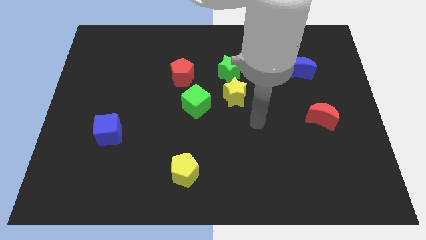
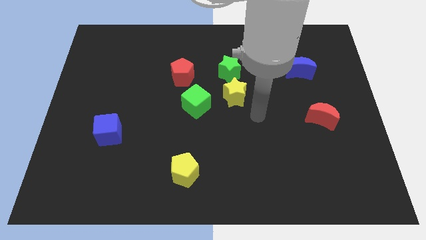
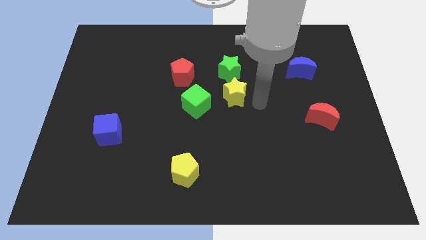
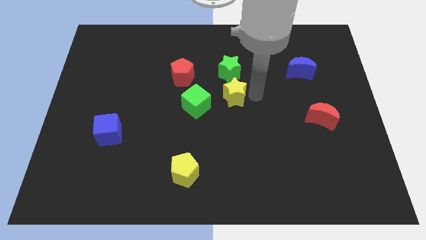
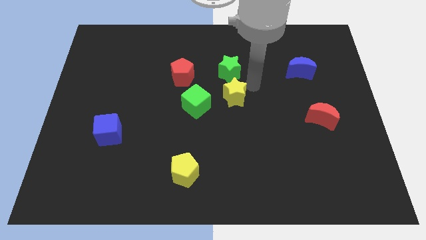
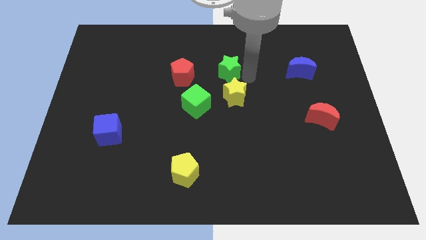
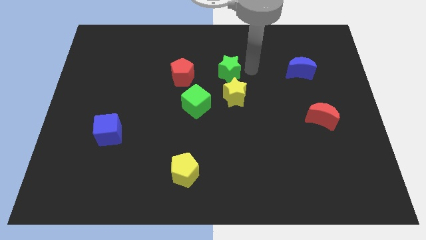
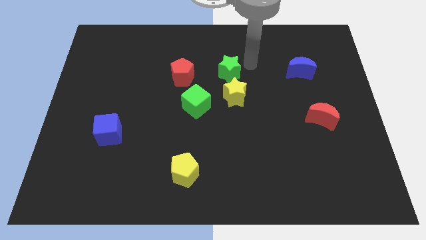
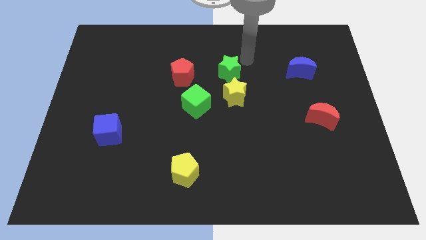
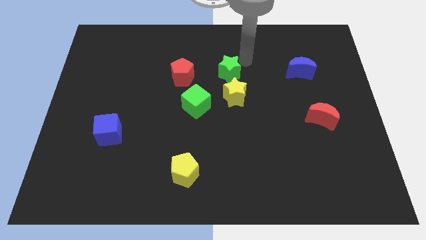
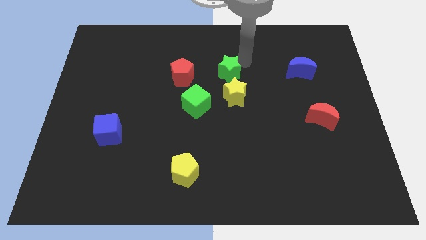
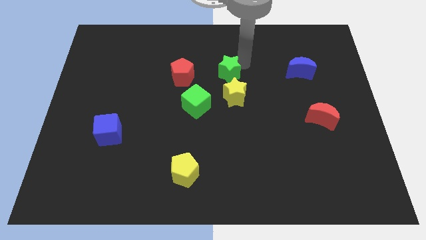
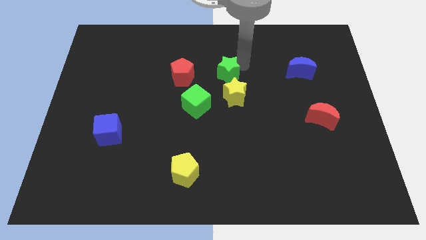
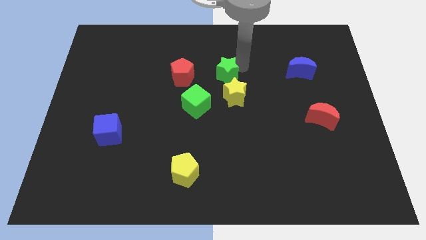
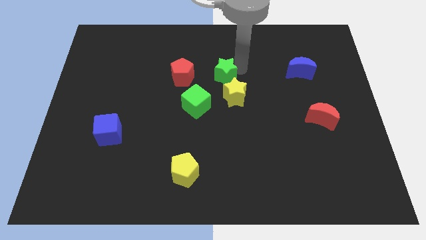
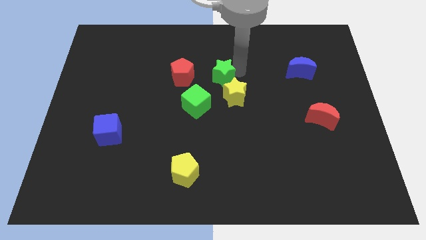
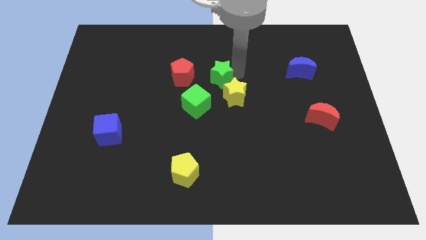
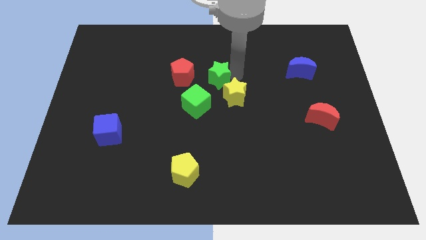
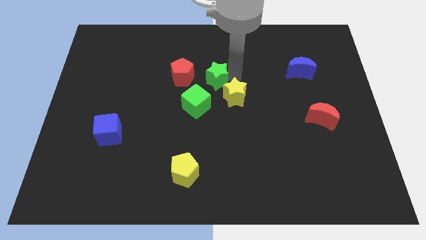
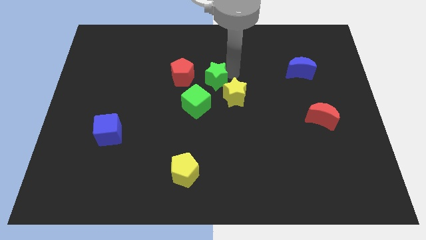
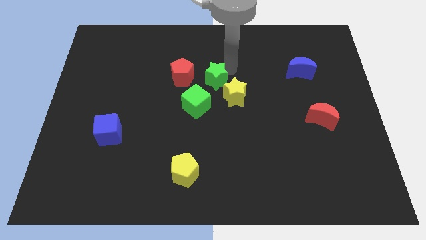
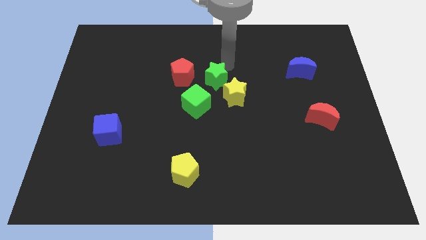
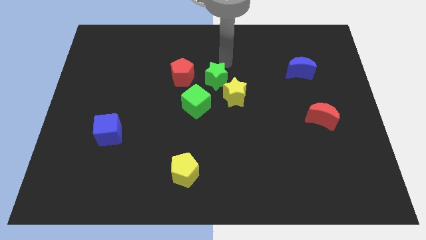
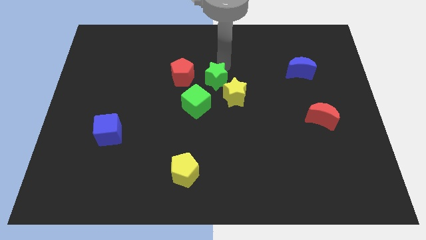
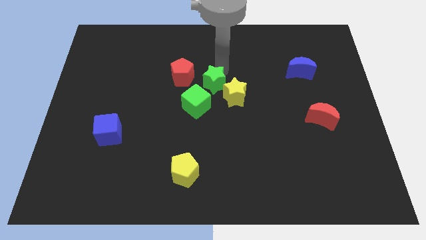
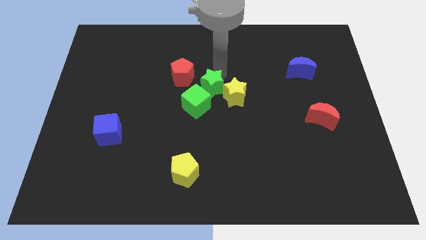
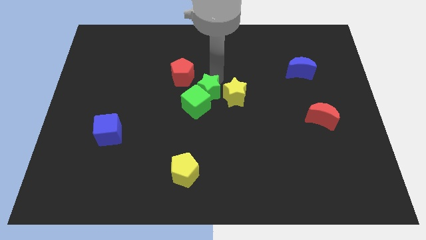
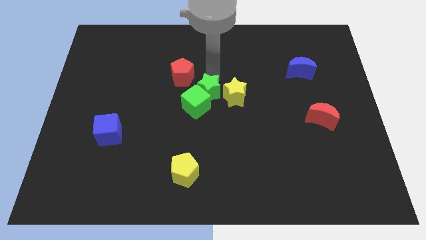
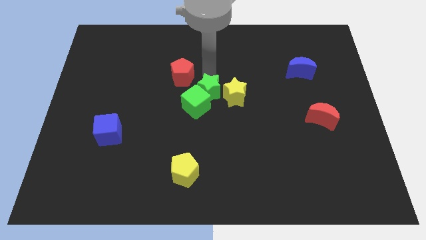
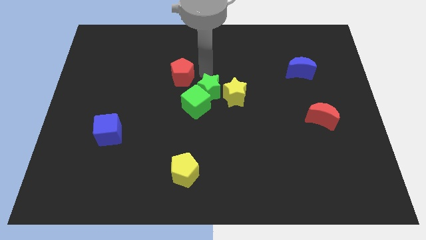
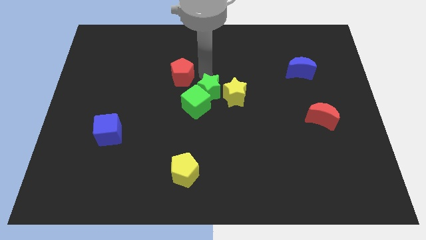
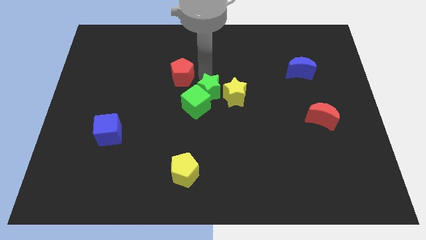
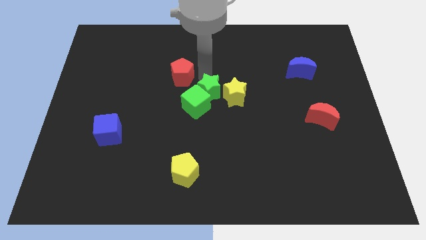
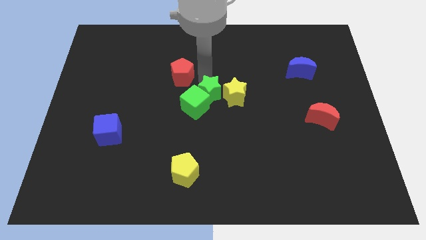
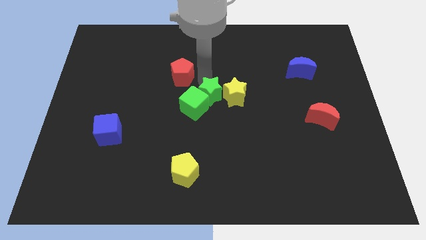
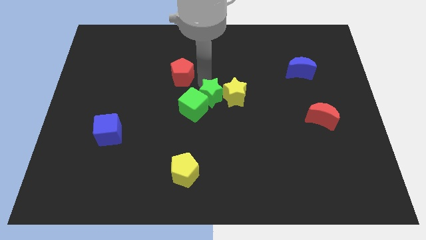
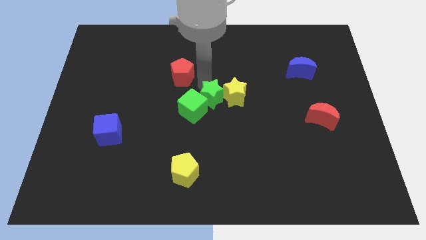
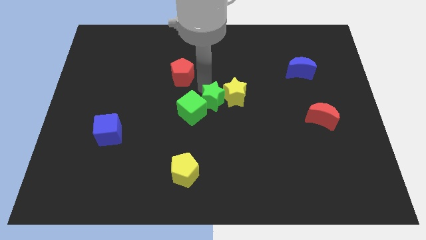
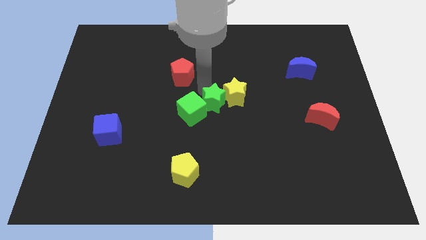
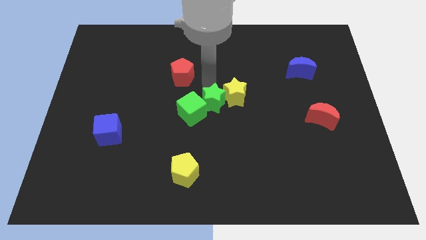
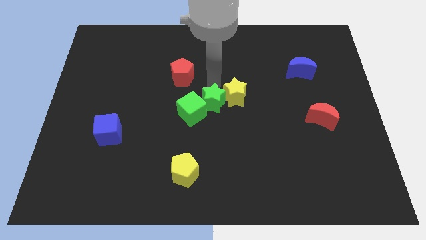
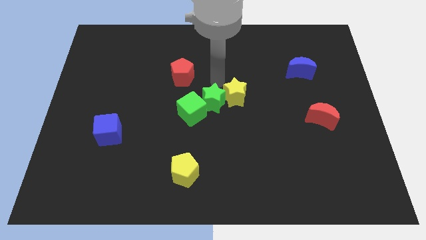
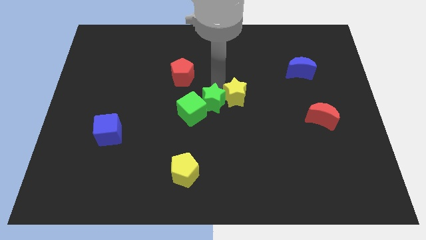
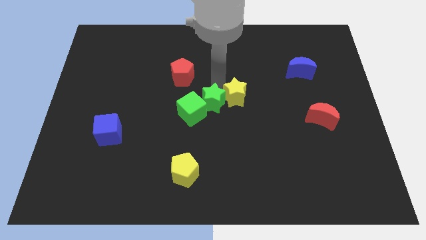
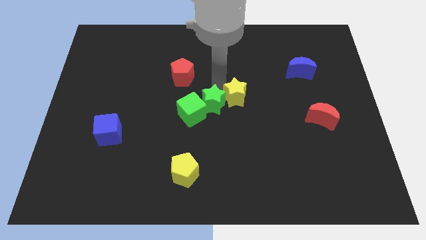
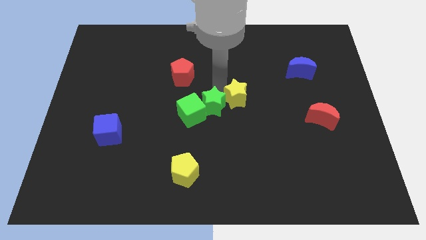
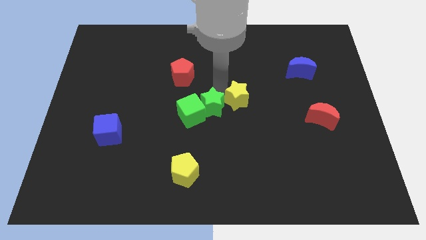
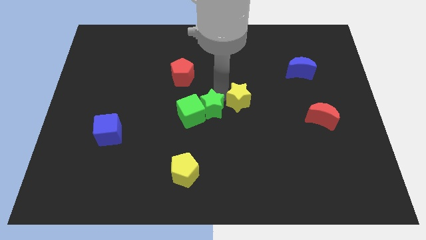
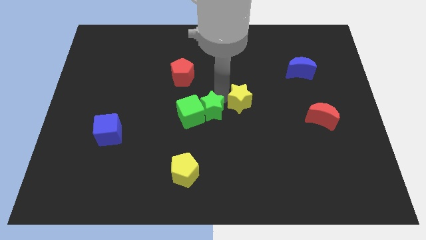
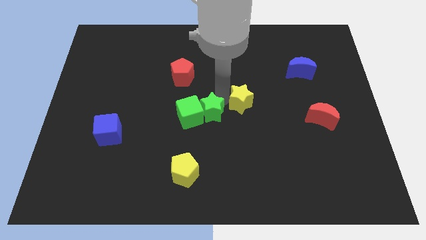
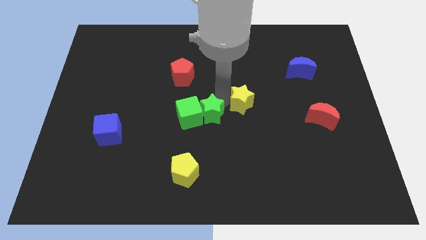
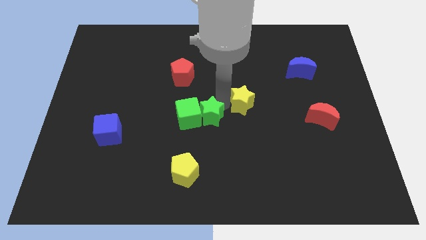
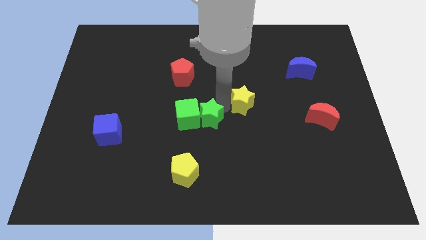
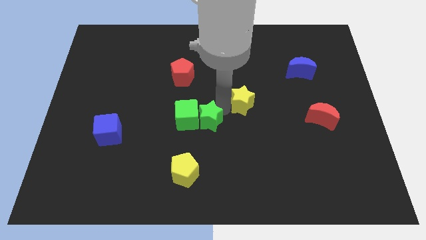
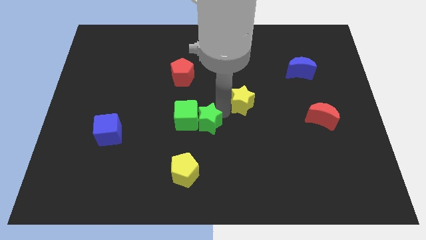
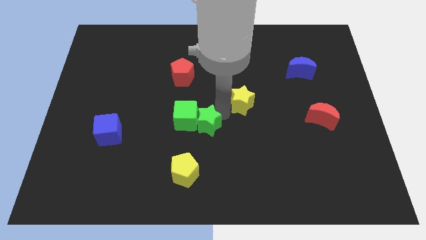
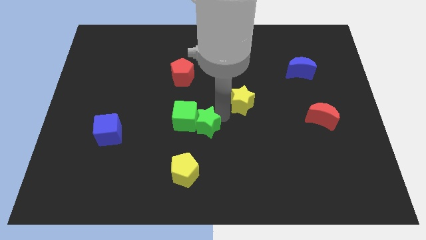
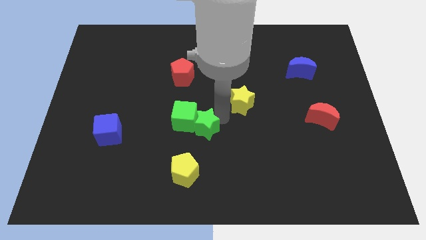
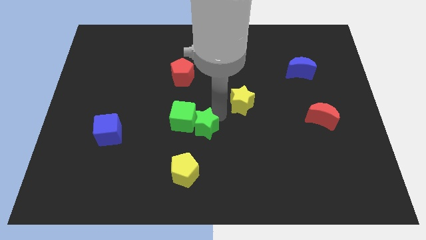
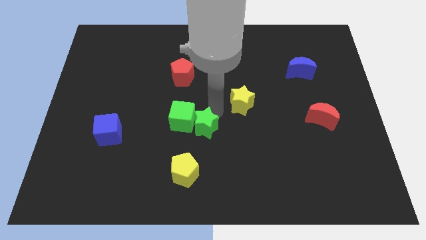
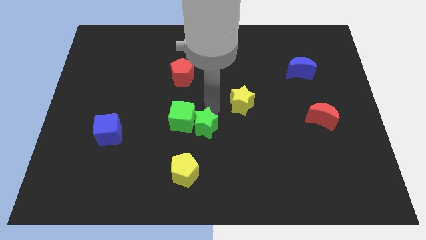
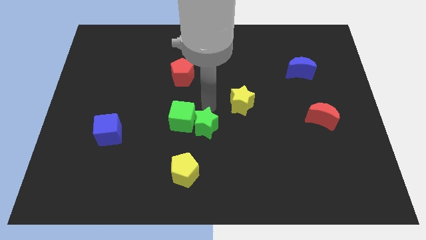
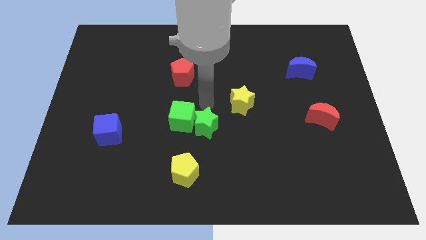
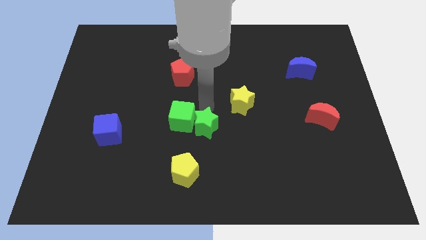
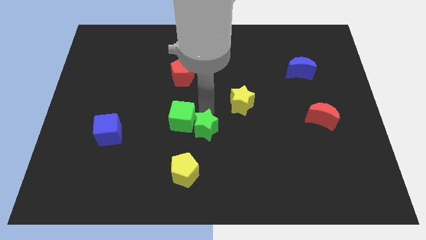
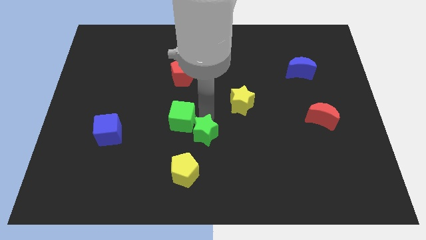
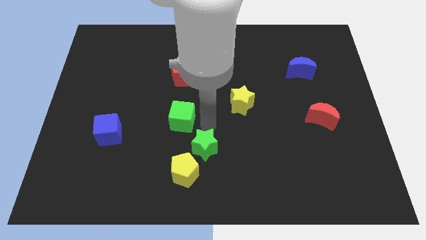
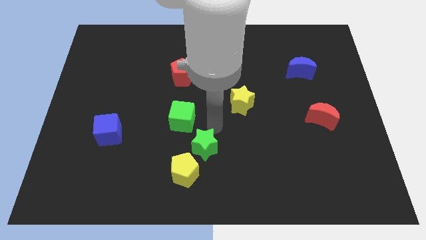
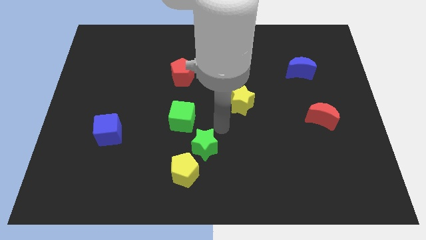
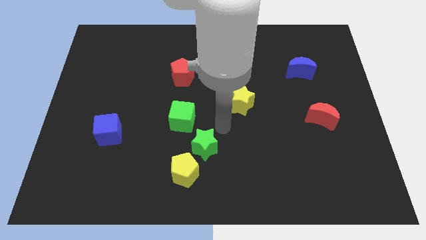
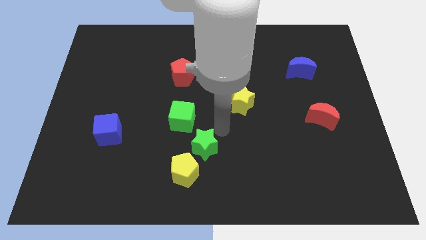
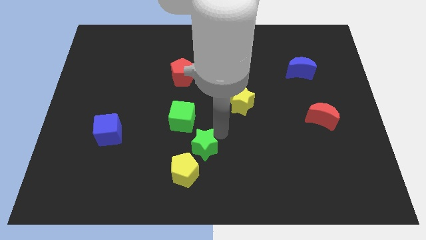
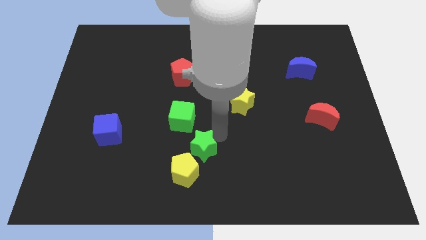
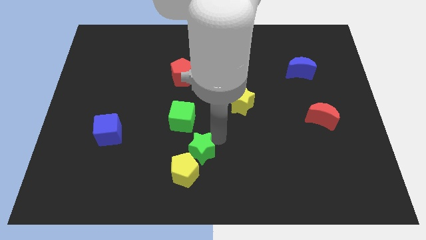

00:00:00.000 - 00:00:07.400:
slide the green star towards the yellow pentagon

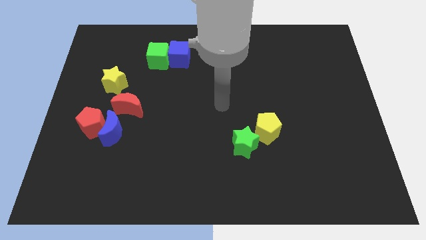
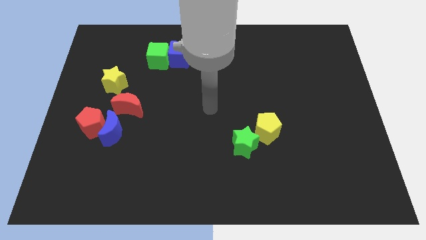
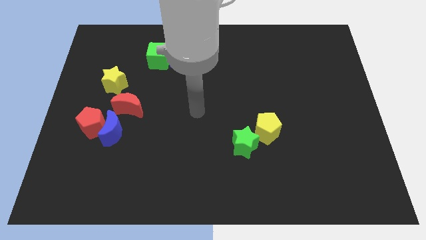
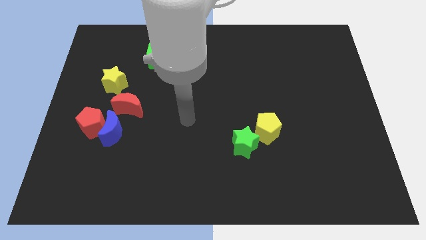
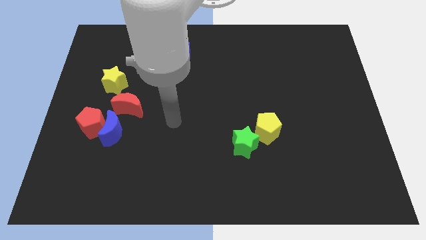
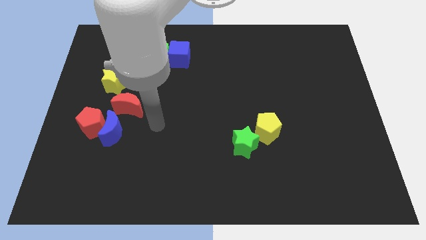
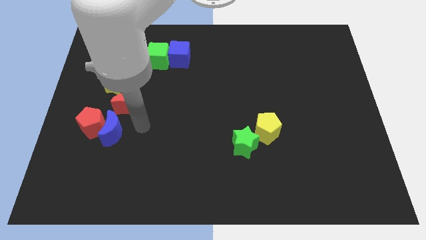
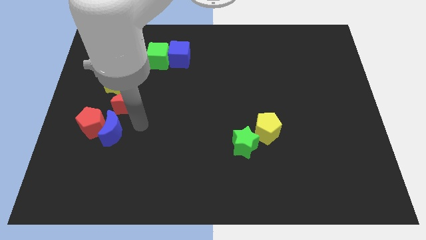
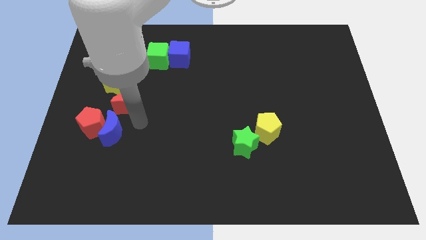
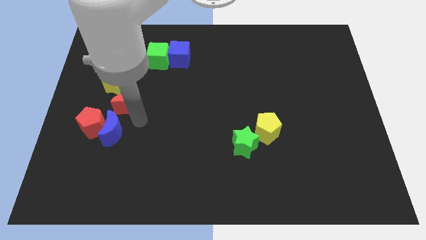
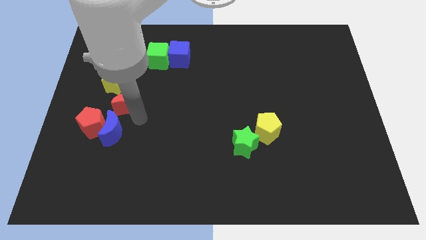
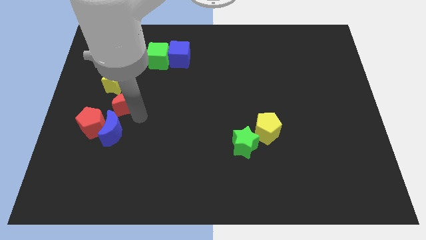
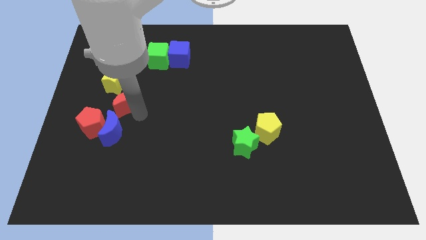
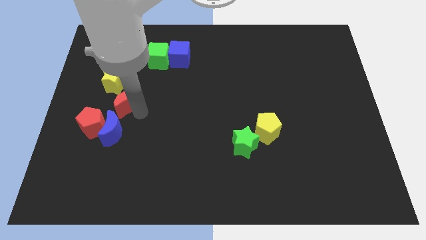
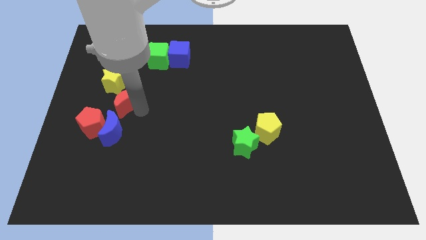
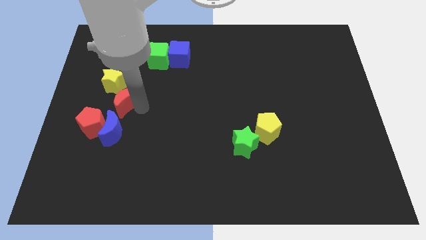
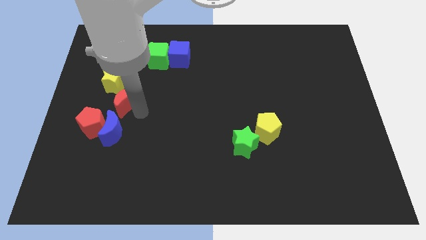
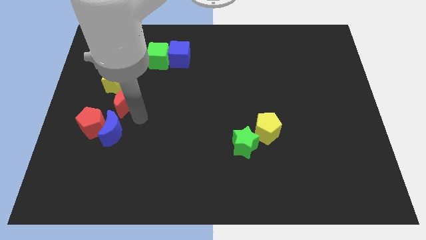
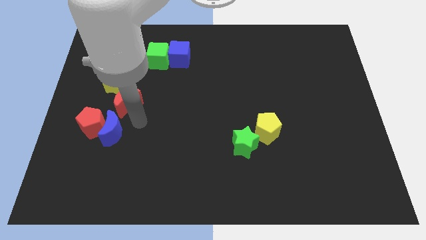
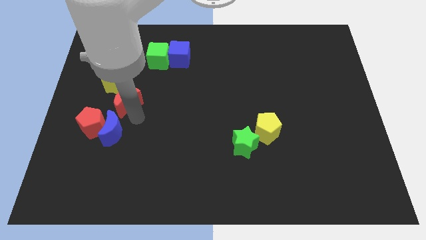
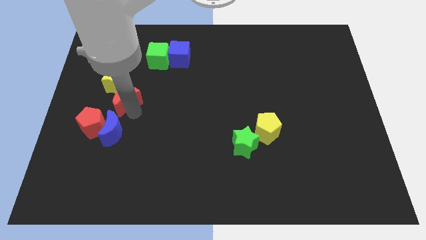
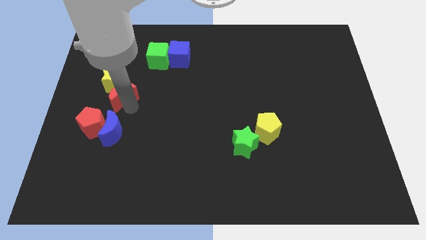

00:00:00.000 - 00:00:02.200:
put the red moon towards the yellow star
